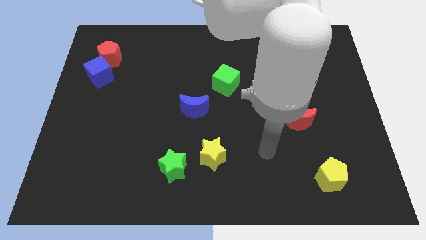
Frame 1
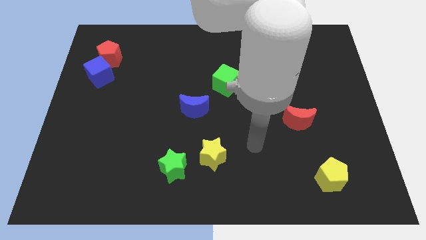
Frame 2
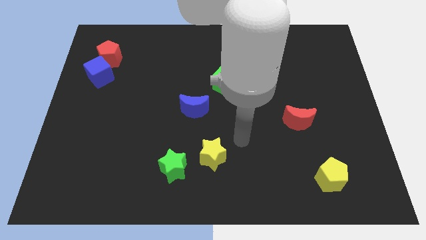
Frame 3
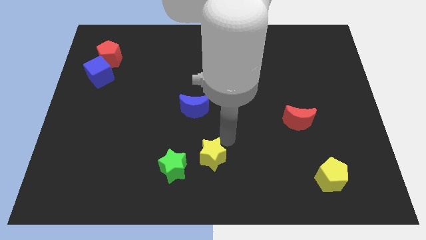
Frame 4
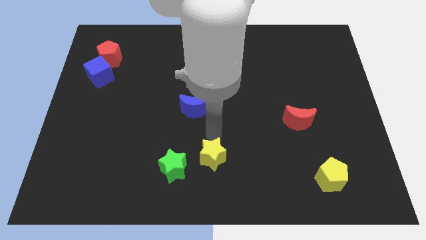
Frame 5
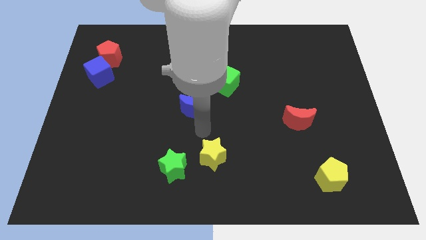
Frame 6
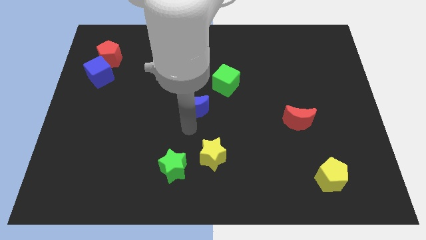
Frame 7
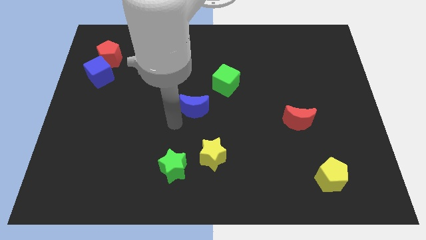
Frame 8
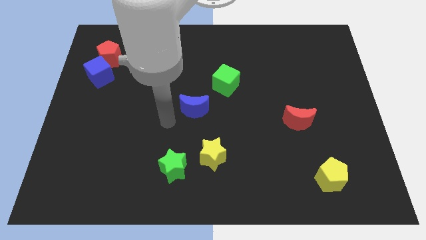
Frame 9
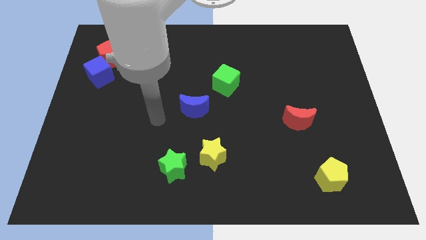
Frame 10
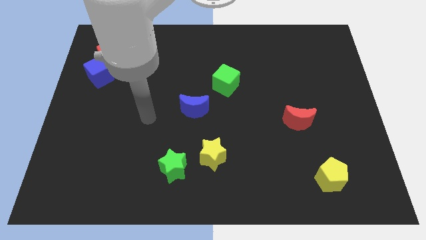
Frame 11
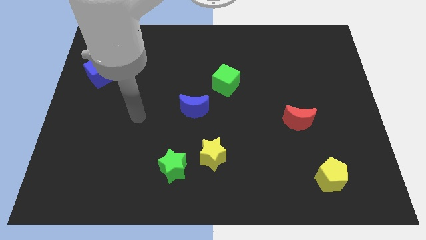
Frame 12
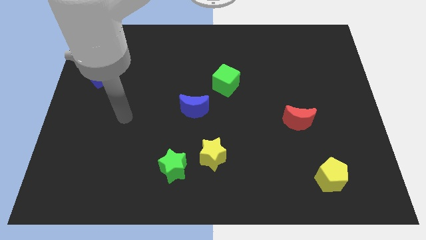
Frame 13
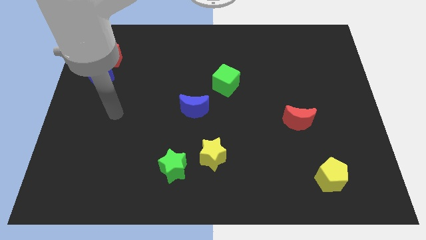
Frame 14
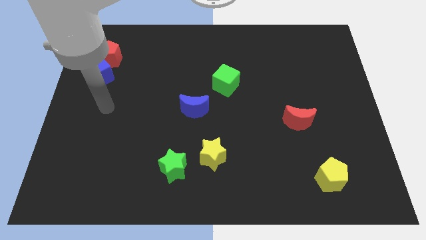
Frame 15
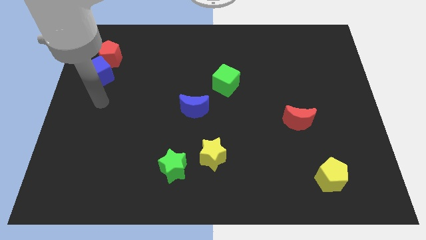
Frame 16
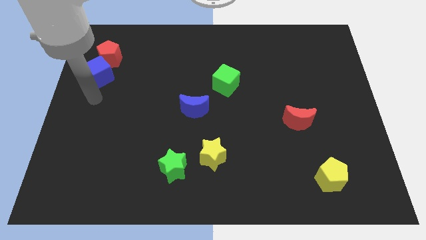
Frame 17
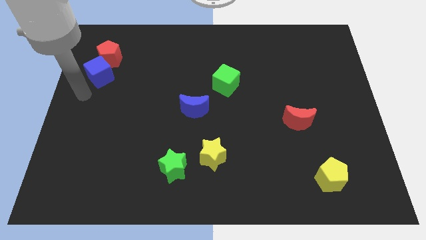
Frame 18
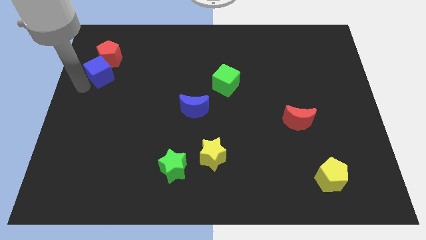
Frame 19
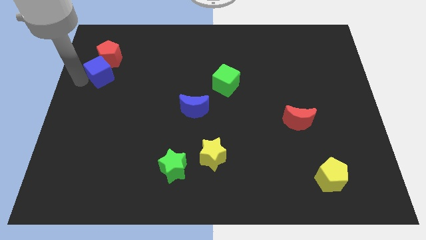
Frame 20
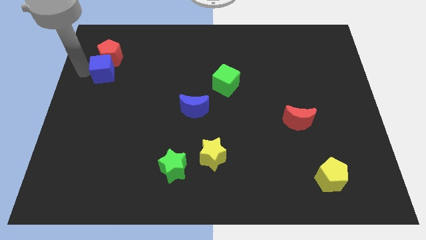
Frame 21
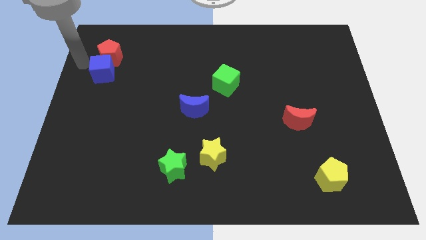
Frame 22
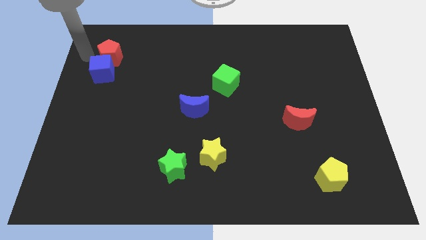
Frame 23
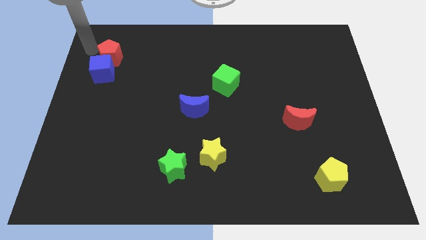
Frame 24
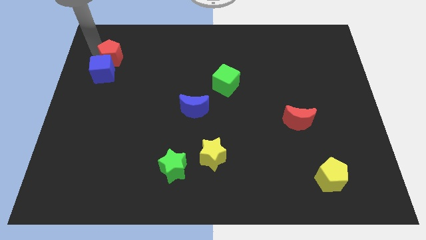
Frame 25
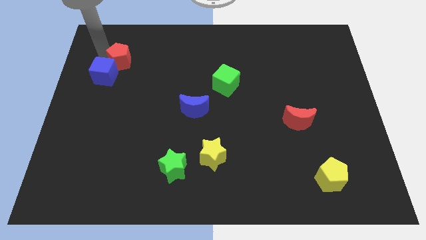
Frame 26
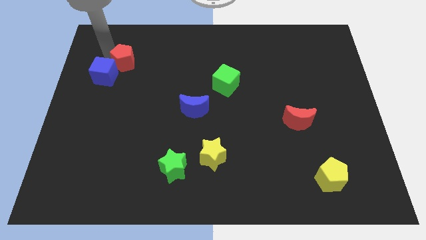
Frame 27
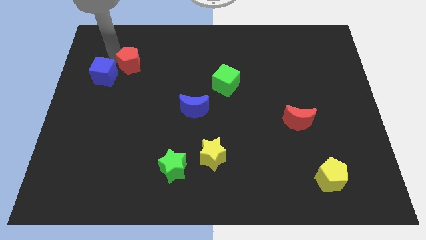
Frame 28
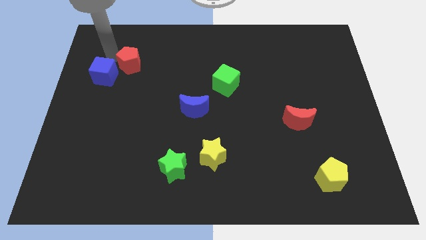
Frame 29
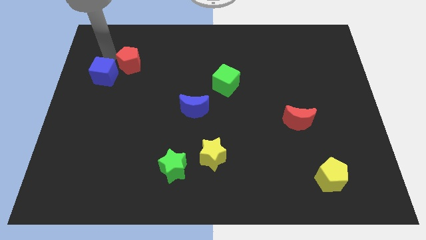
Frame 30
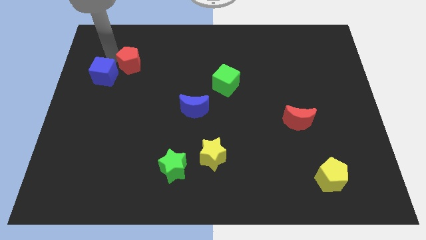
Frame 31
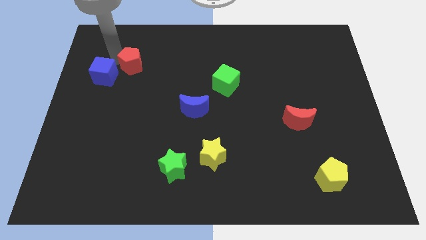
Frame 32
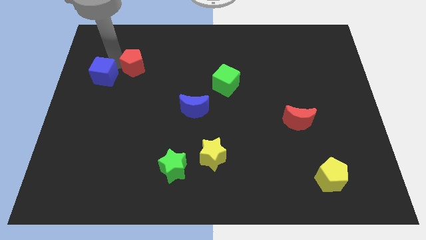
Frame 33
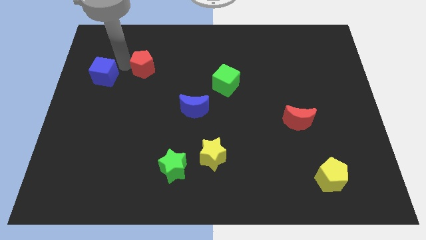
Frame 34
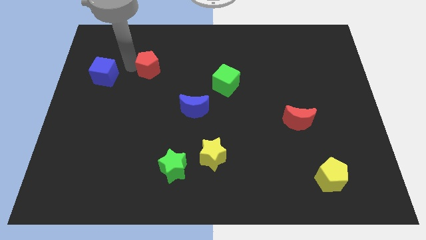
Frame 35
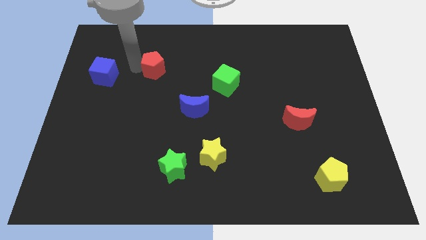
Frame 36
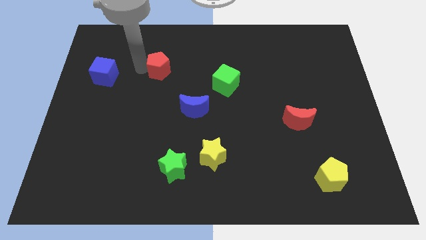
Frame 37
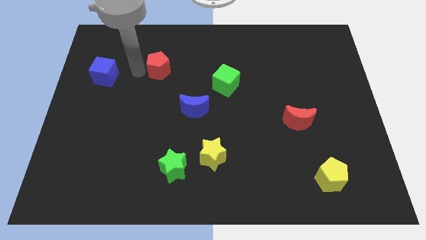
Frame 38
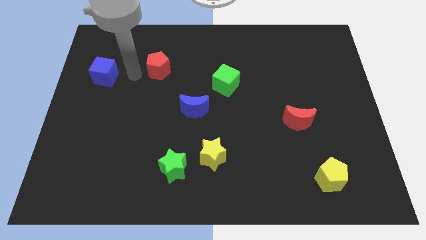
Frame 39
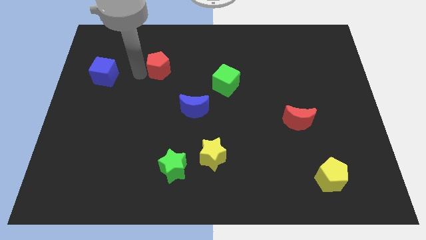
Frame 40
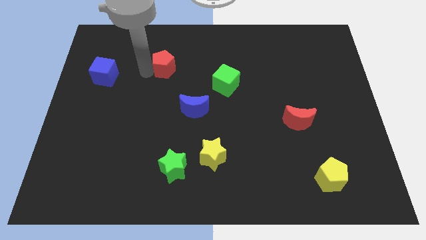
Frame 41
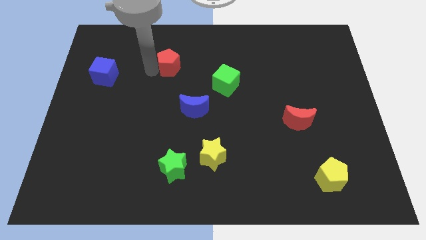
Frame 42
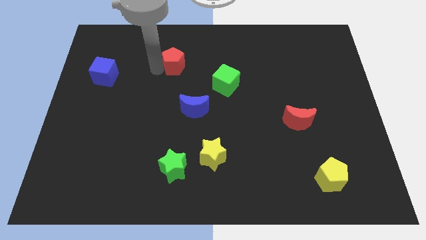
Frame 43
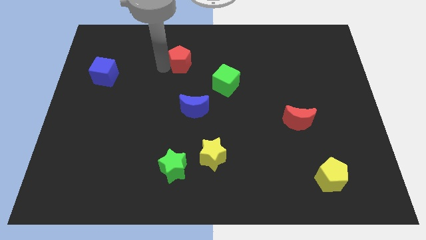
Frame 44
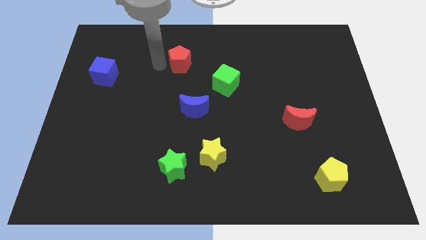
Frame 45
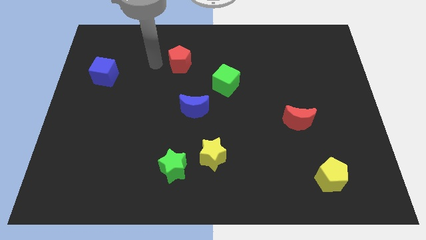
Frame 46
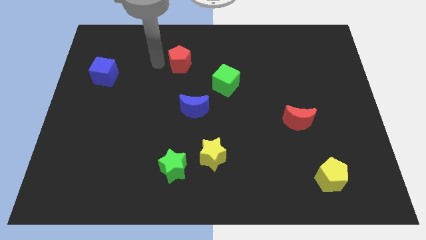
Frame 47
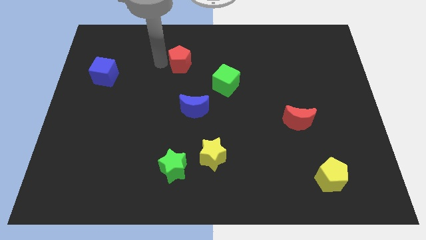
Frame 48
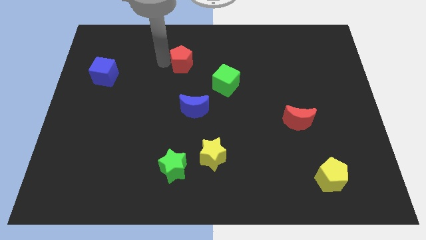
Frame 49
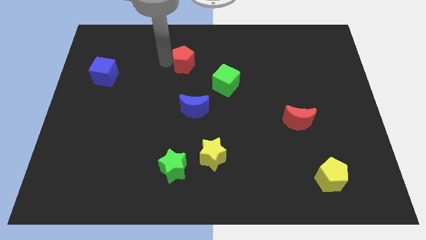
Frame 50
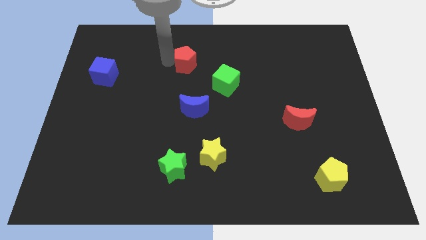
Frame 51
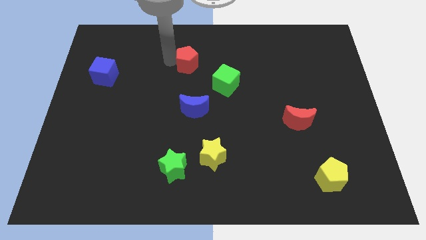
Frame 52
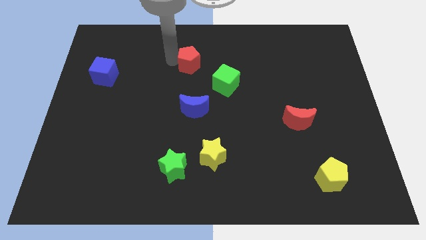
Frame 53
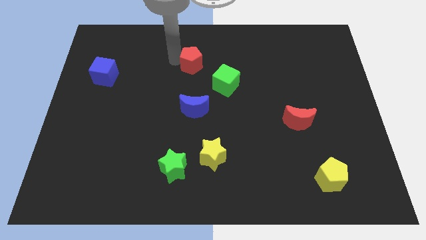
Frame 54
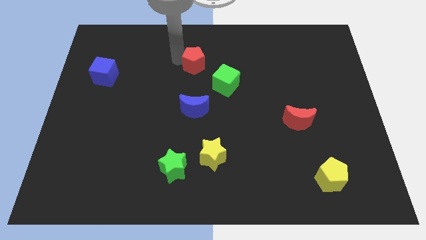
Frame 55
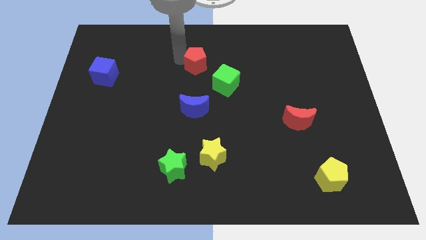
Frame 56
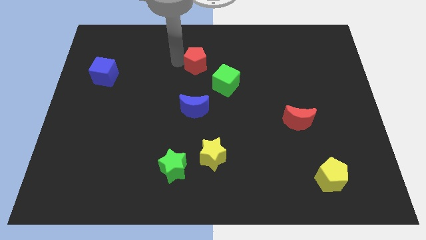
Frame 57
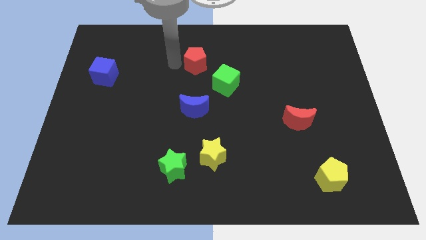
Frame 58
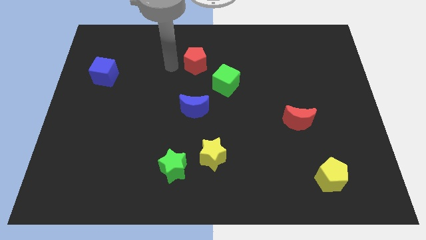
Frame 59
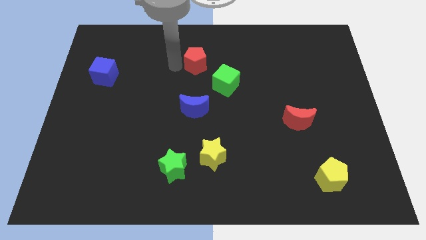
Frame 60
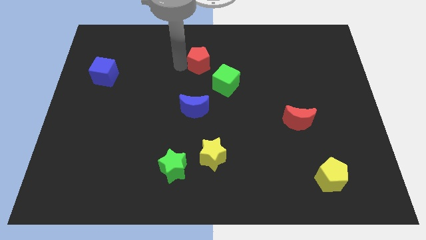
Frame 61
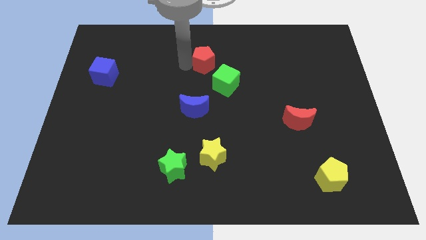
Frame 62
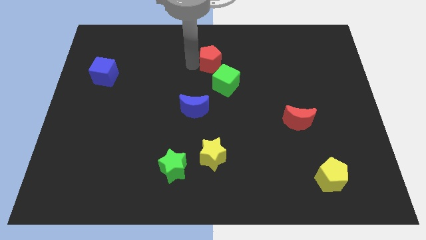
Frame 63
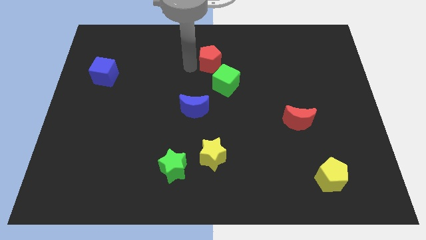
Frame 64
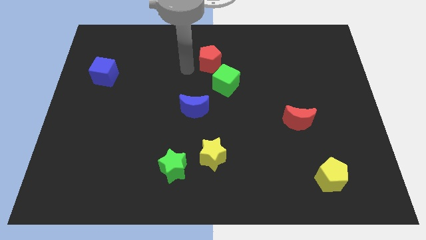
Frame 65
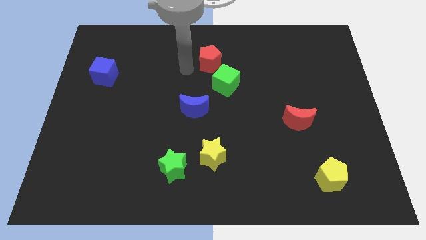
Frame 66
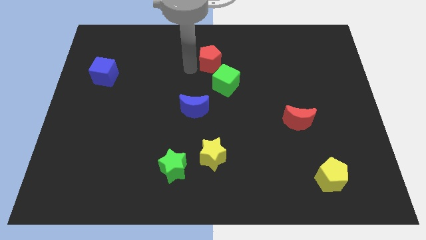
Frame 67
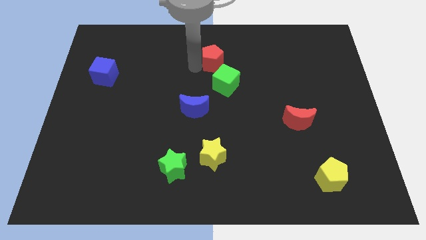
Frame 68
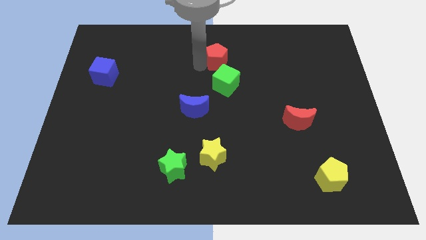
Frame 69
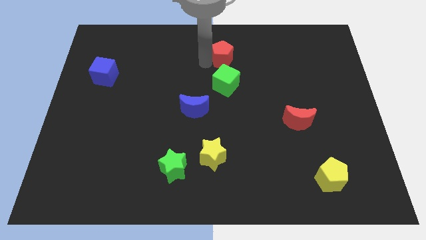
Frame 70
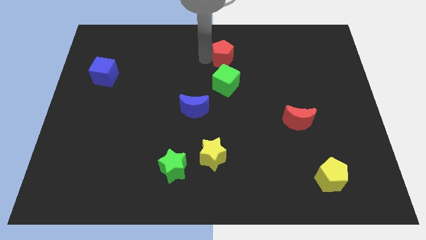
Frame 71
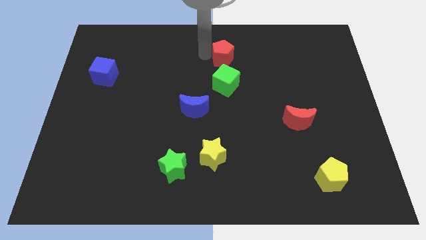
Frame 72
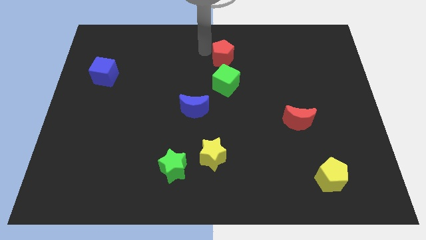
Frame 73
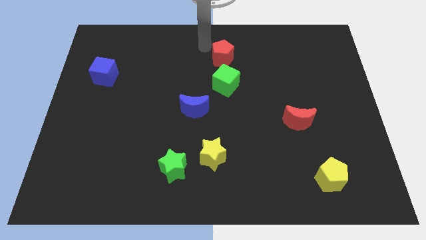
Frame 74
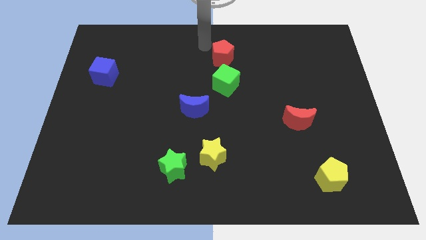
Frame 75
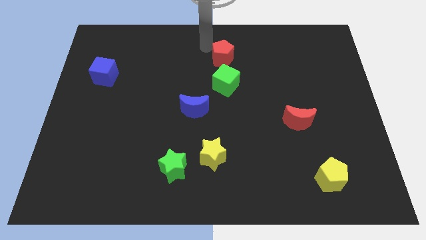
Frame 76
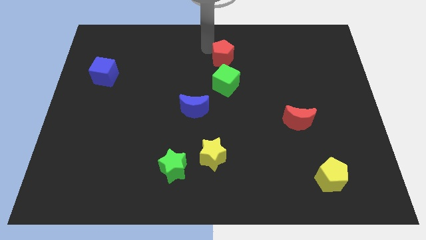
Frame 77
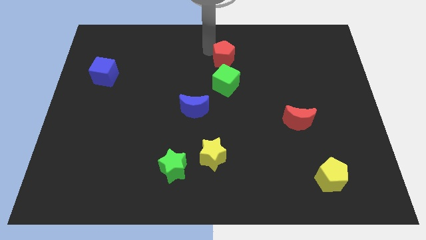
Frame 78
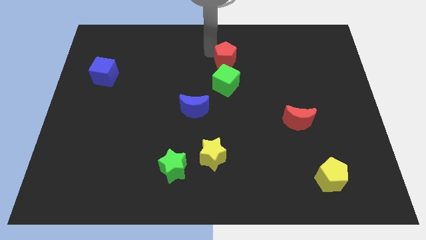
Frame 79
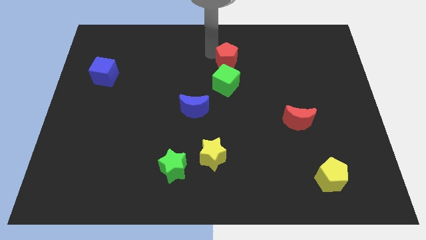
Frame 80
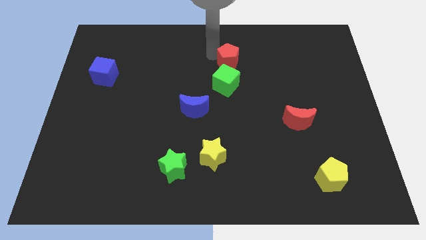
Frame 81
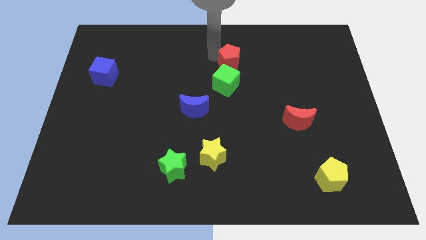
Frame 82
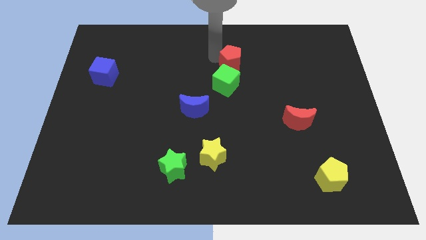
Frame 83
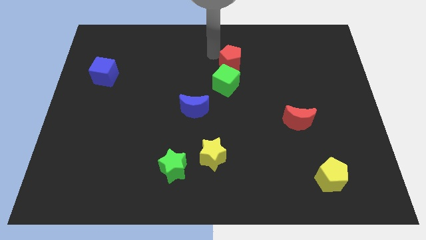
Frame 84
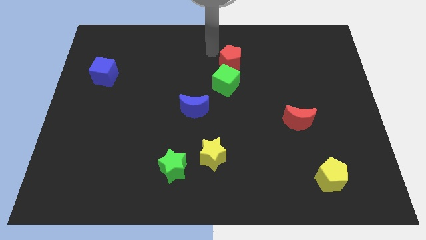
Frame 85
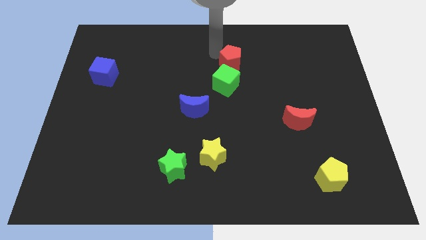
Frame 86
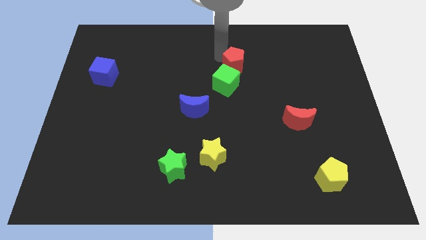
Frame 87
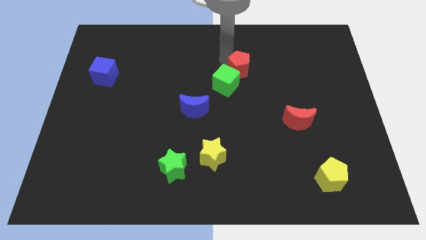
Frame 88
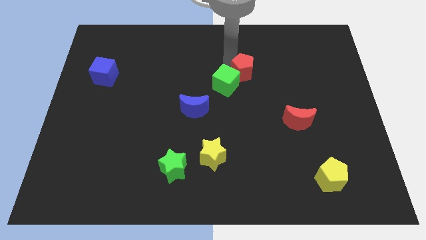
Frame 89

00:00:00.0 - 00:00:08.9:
move the red pentagon right of the green cube
